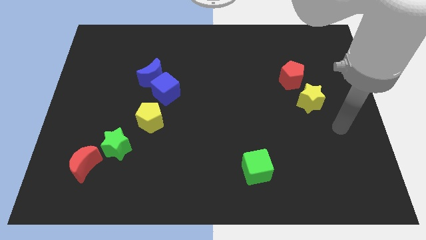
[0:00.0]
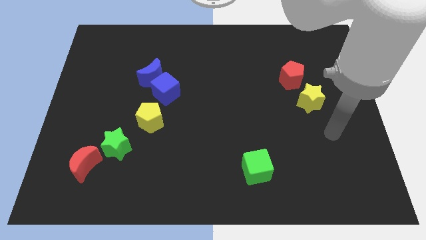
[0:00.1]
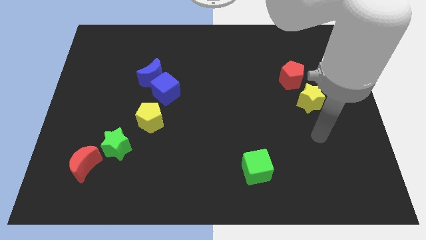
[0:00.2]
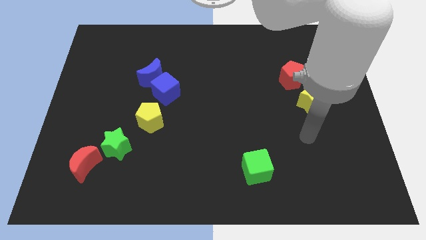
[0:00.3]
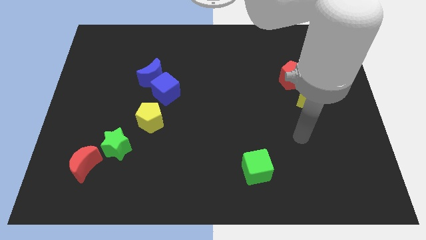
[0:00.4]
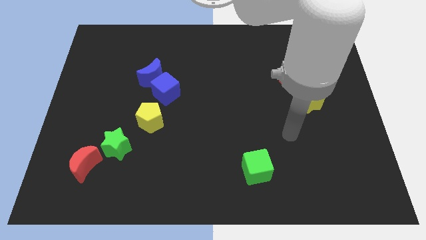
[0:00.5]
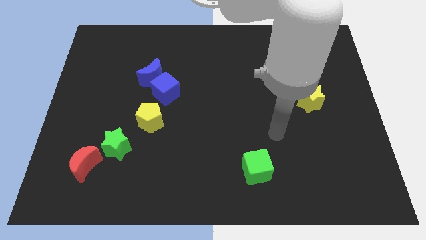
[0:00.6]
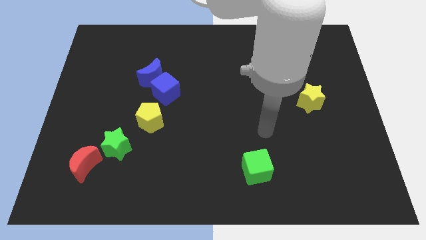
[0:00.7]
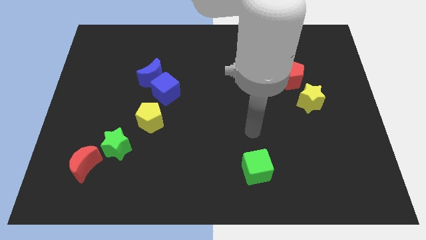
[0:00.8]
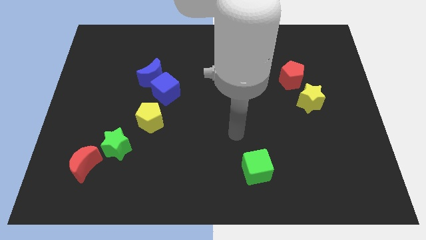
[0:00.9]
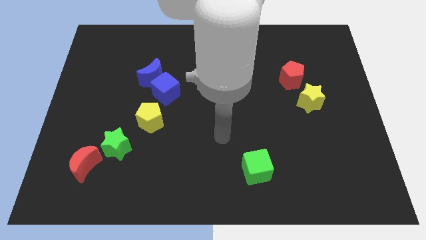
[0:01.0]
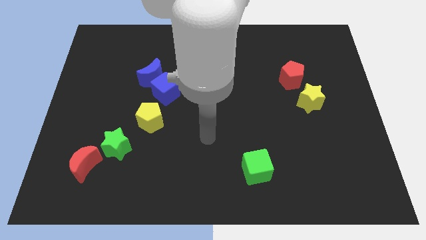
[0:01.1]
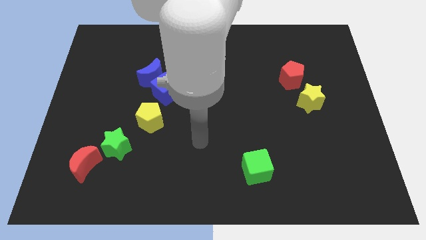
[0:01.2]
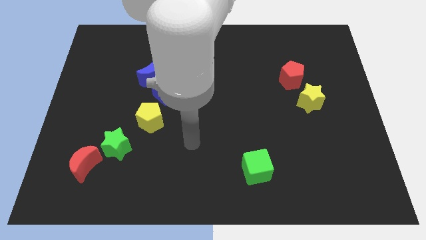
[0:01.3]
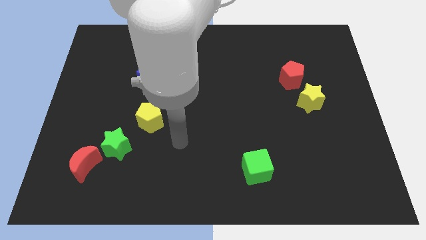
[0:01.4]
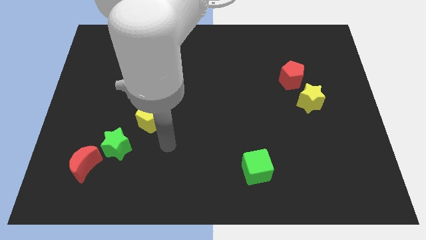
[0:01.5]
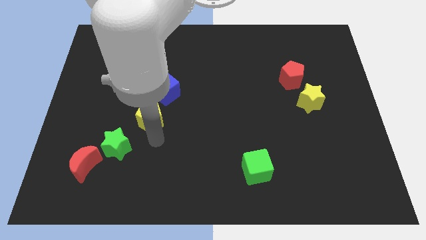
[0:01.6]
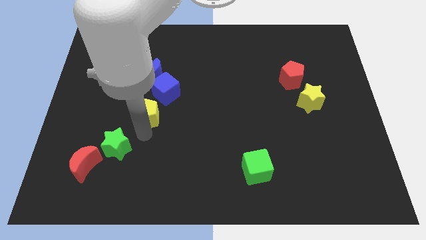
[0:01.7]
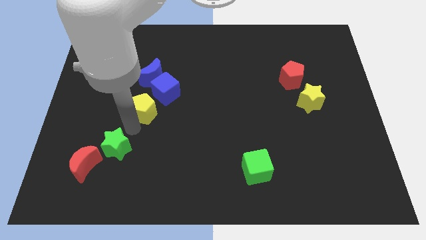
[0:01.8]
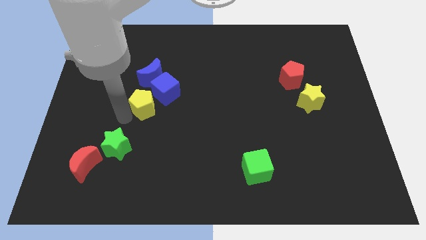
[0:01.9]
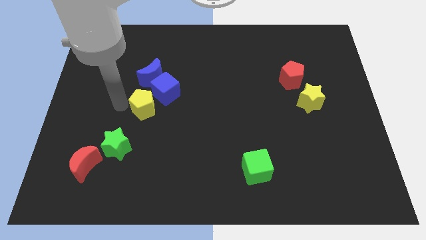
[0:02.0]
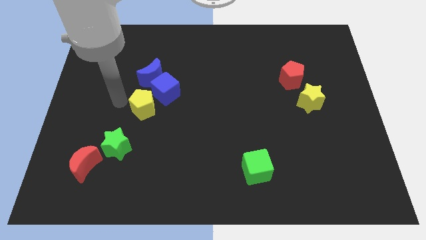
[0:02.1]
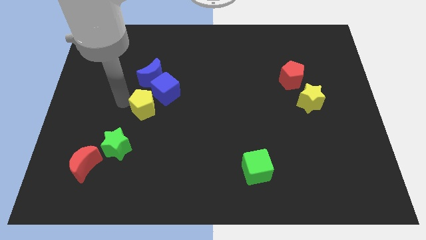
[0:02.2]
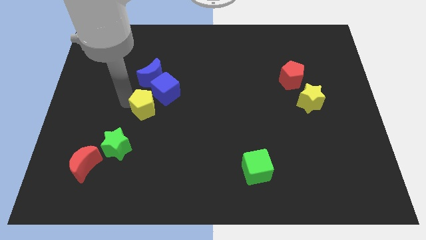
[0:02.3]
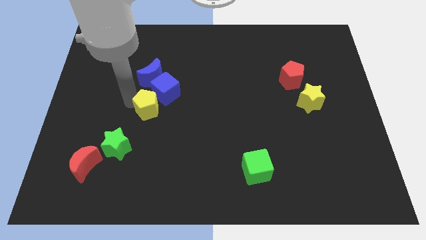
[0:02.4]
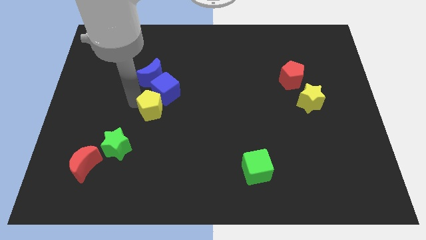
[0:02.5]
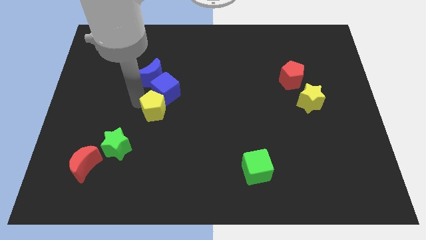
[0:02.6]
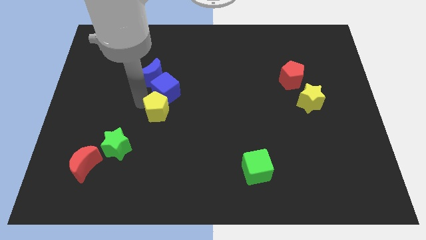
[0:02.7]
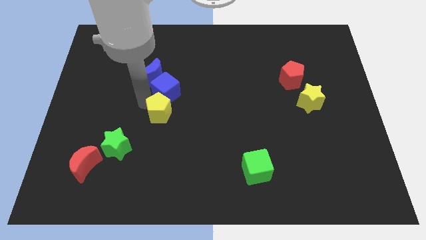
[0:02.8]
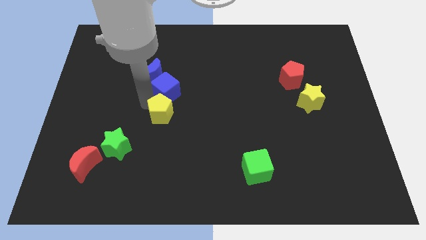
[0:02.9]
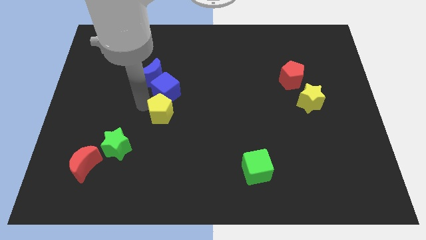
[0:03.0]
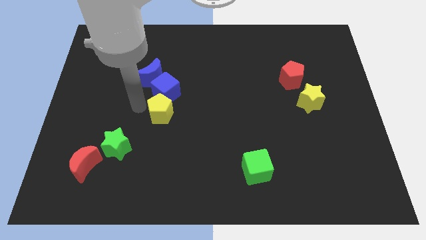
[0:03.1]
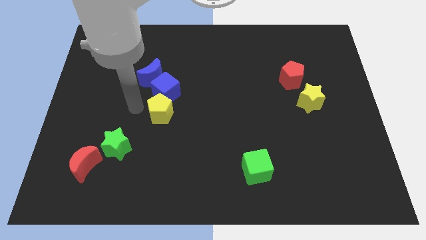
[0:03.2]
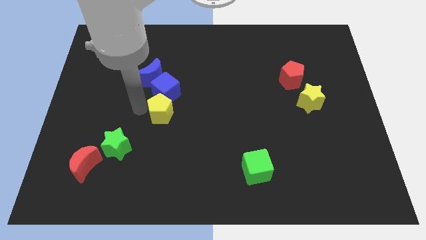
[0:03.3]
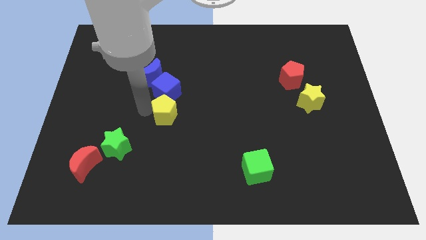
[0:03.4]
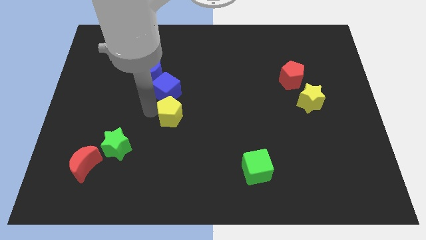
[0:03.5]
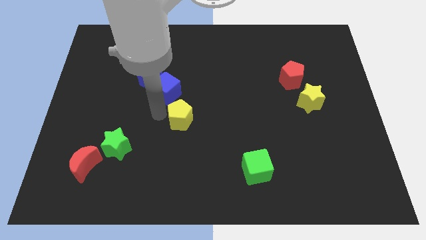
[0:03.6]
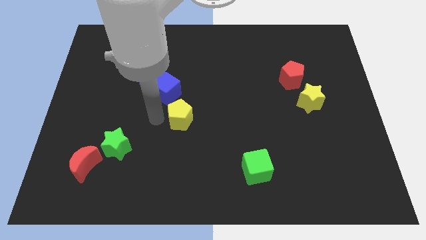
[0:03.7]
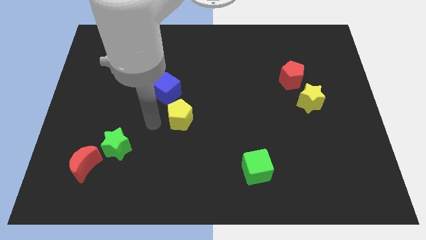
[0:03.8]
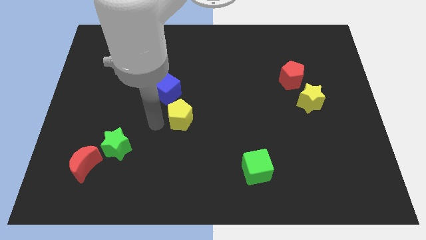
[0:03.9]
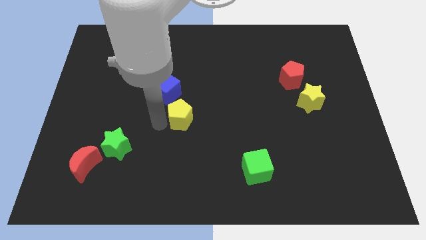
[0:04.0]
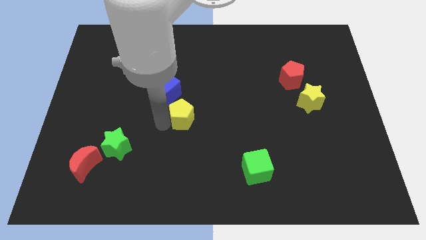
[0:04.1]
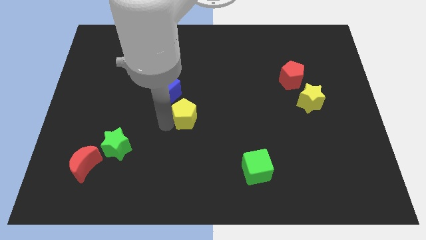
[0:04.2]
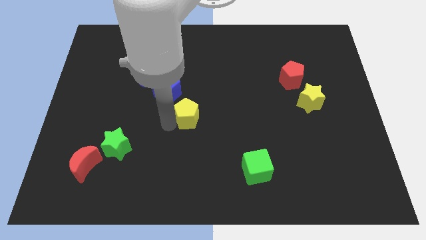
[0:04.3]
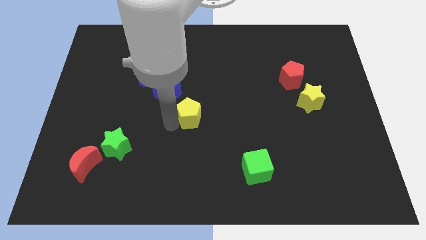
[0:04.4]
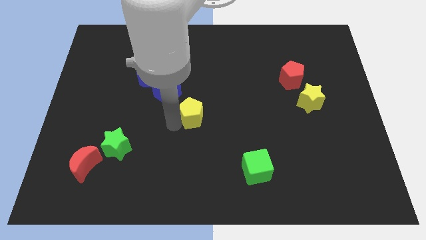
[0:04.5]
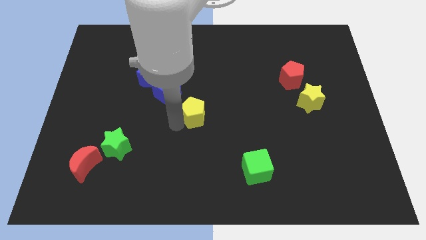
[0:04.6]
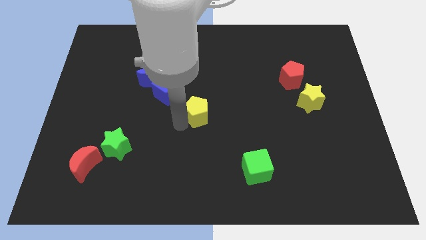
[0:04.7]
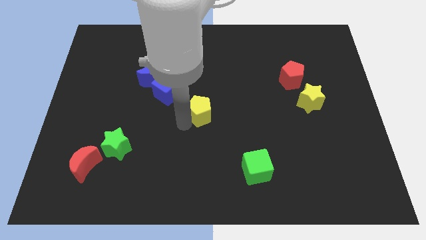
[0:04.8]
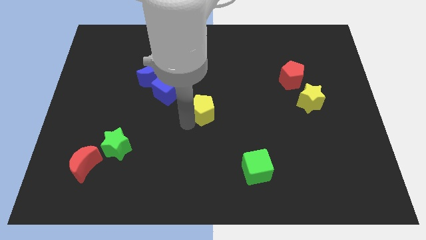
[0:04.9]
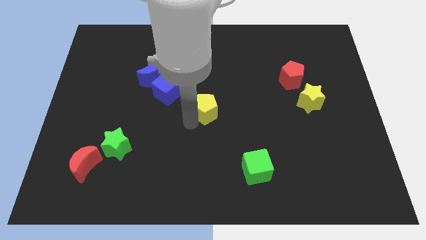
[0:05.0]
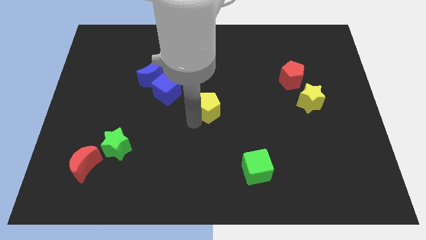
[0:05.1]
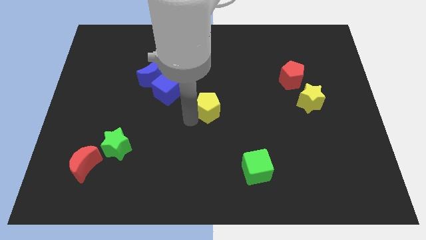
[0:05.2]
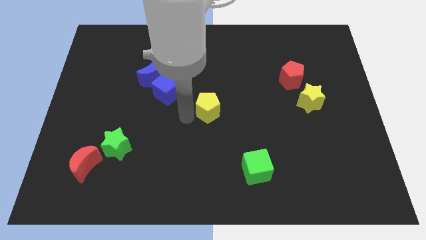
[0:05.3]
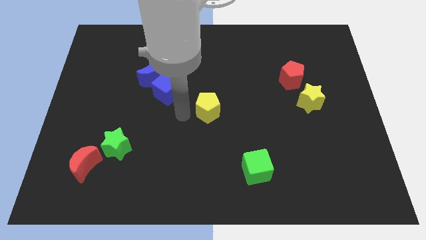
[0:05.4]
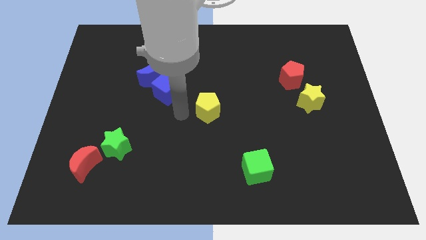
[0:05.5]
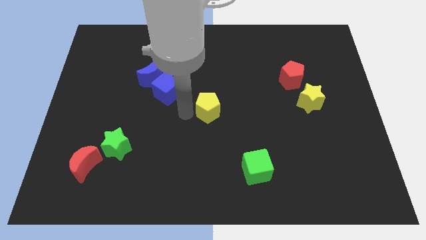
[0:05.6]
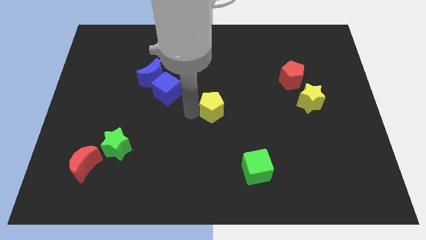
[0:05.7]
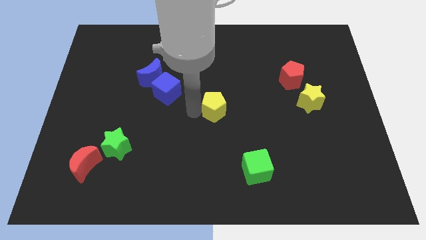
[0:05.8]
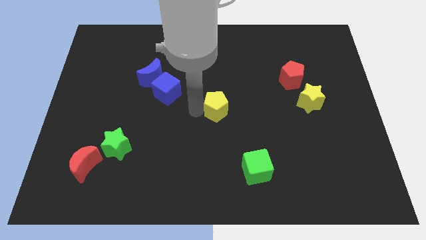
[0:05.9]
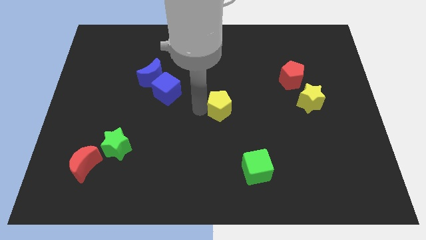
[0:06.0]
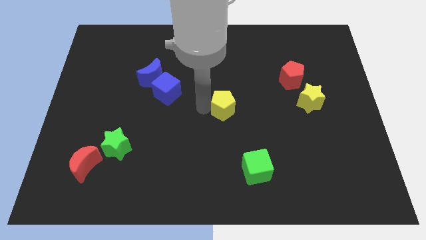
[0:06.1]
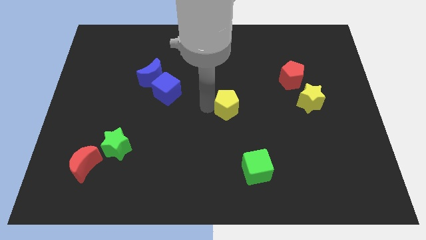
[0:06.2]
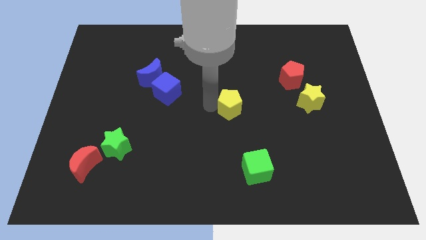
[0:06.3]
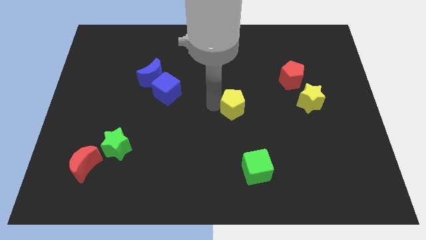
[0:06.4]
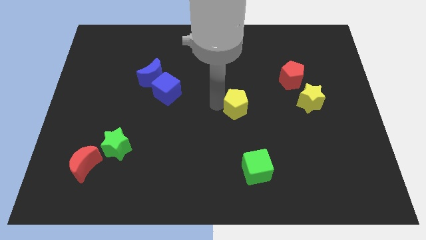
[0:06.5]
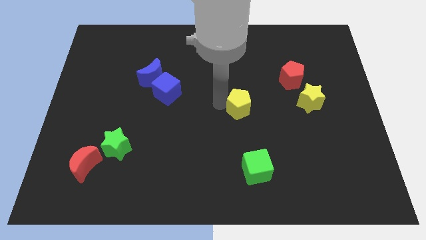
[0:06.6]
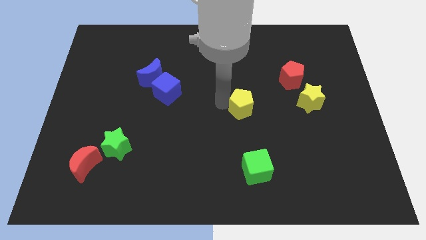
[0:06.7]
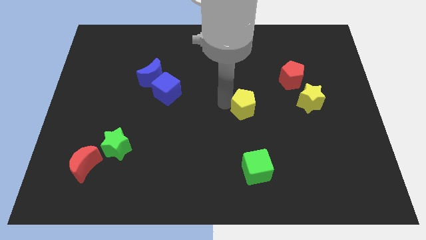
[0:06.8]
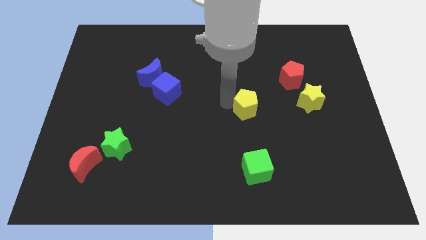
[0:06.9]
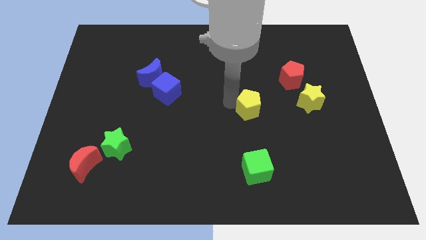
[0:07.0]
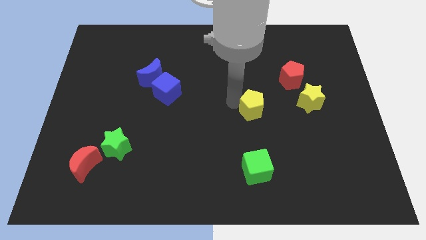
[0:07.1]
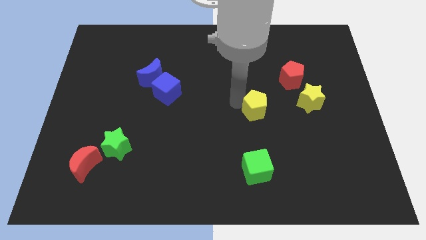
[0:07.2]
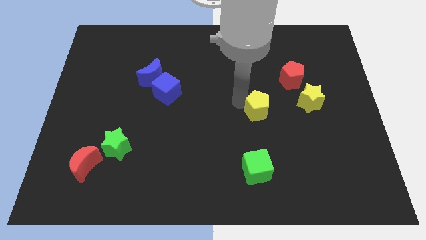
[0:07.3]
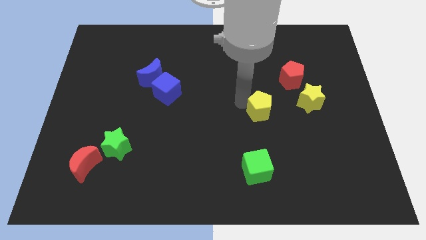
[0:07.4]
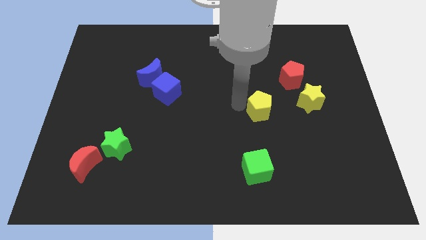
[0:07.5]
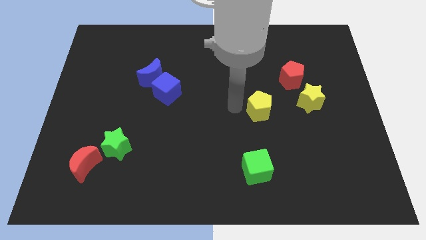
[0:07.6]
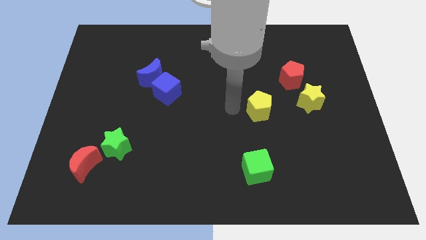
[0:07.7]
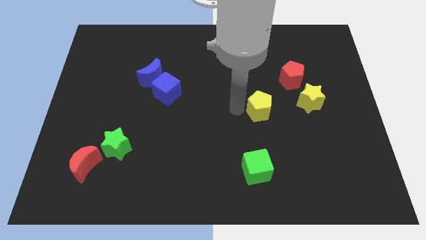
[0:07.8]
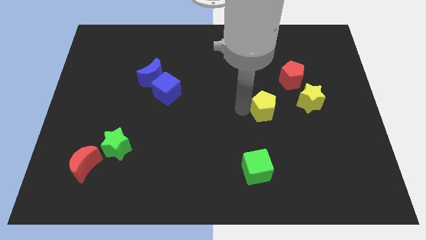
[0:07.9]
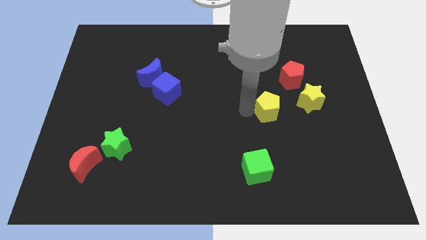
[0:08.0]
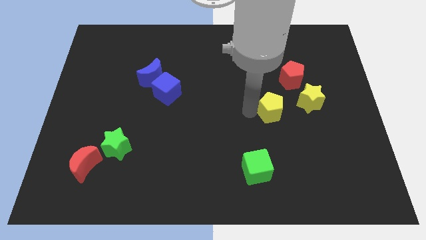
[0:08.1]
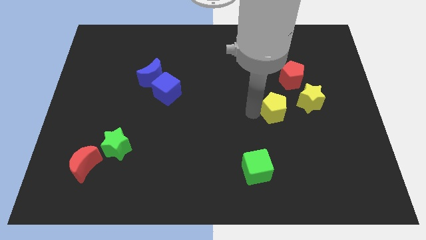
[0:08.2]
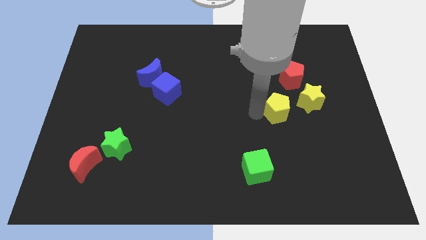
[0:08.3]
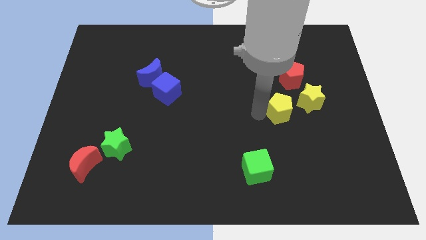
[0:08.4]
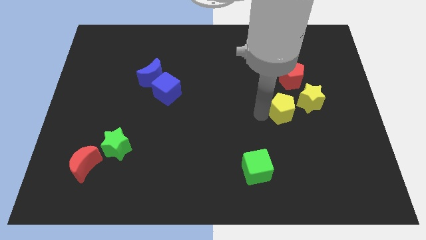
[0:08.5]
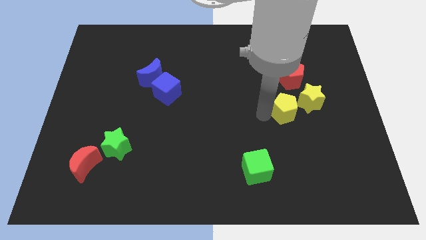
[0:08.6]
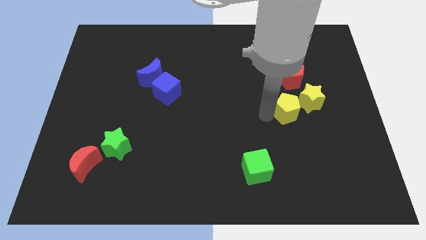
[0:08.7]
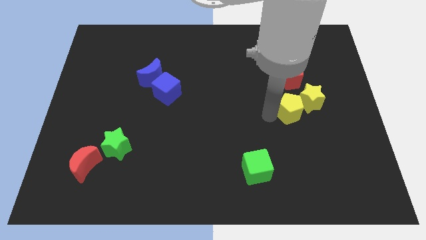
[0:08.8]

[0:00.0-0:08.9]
put the yellow pentagon next to the yellow star
